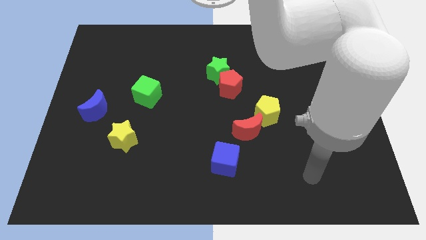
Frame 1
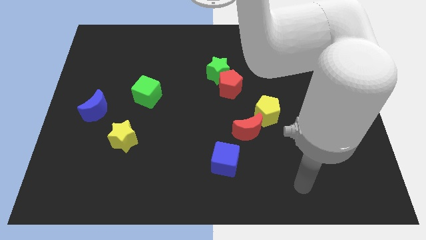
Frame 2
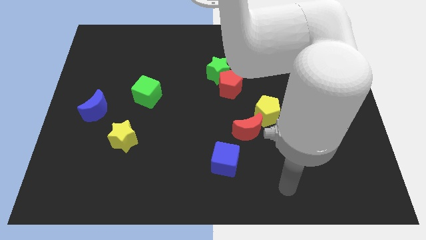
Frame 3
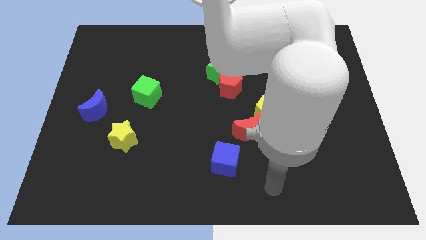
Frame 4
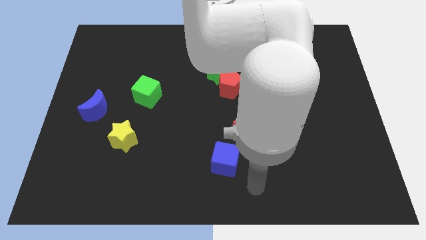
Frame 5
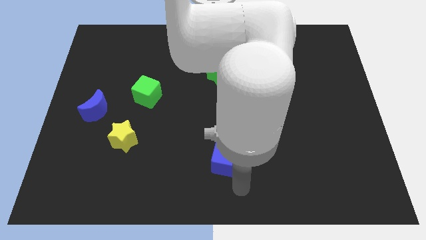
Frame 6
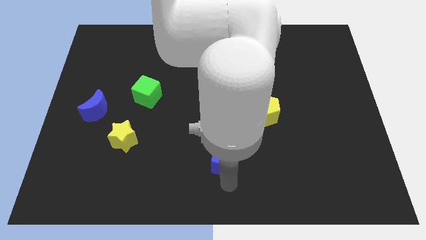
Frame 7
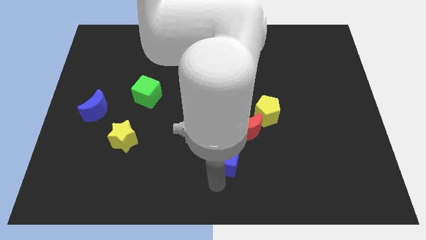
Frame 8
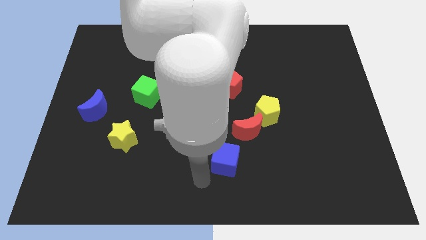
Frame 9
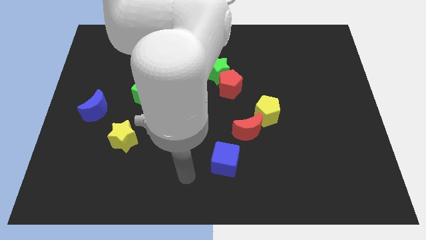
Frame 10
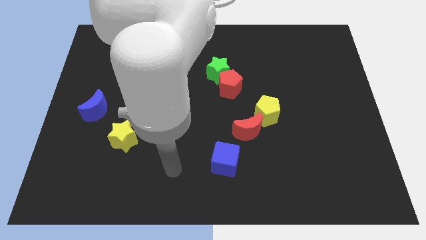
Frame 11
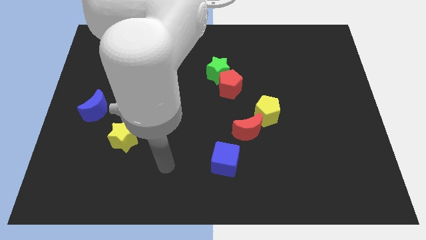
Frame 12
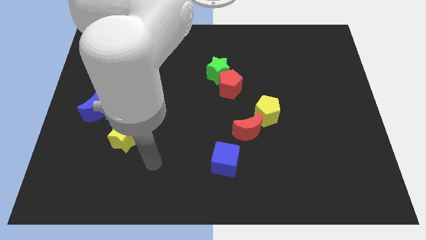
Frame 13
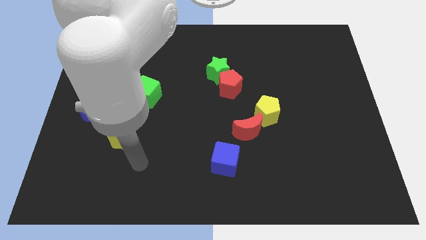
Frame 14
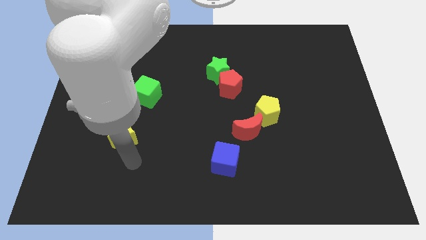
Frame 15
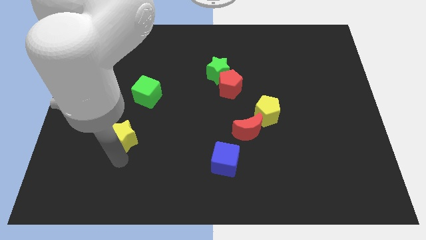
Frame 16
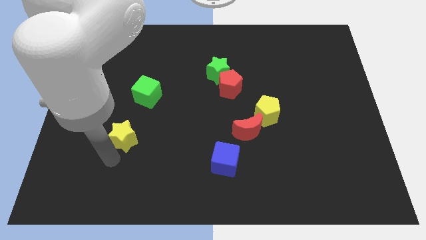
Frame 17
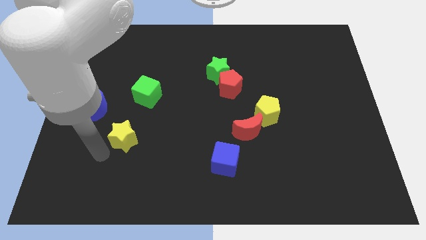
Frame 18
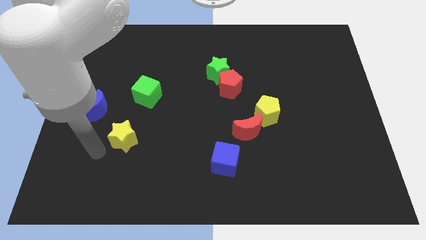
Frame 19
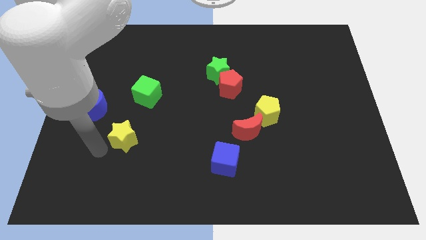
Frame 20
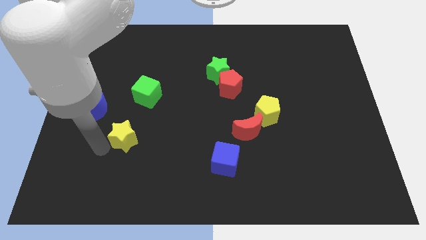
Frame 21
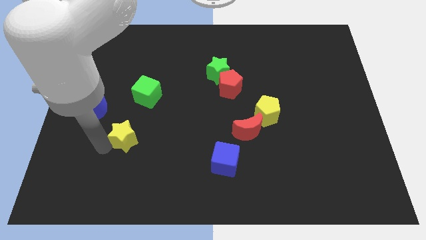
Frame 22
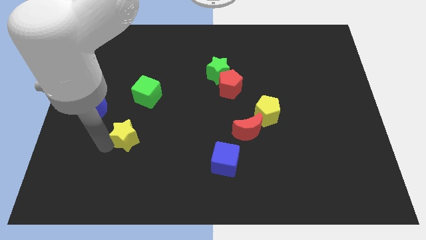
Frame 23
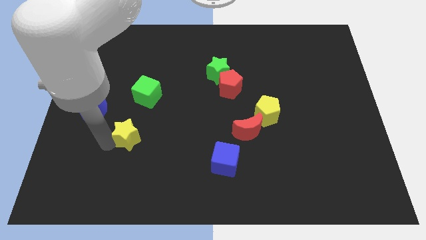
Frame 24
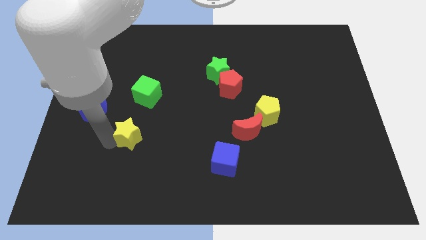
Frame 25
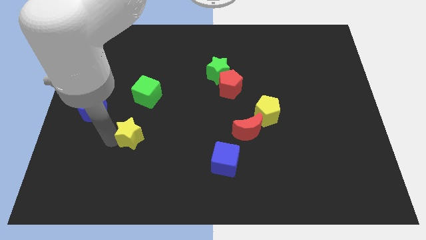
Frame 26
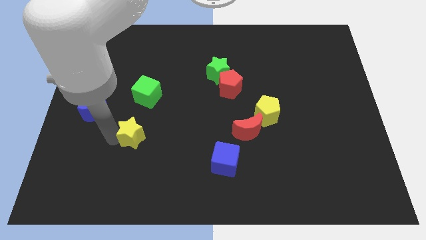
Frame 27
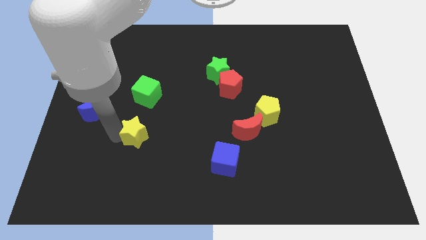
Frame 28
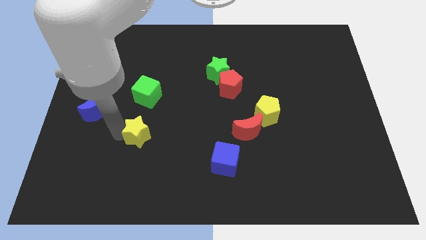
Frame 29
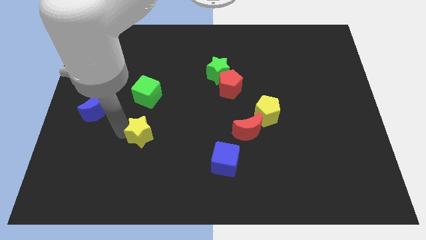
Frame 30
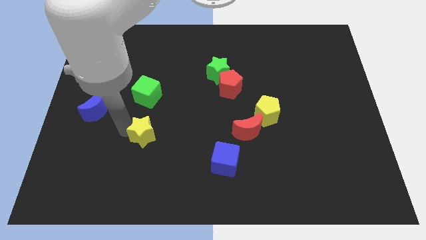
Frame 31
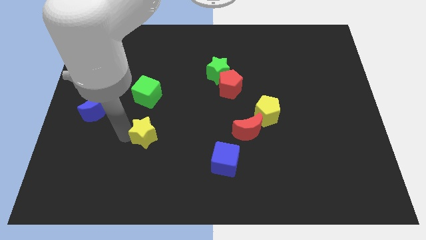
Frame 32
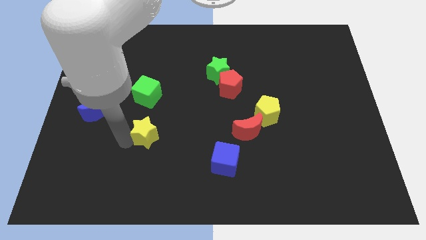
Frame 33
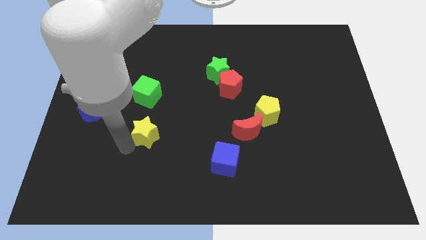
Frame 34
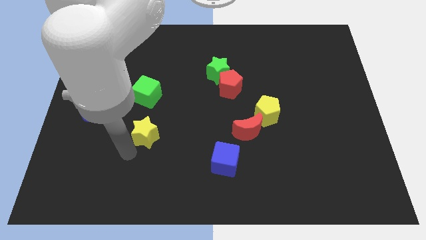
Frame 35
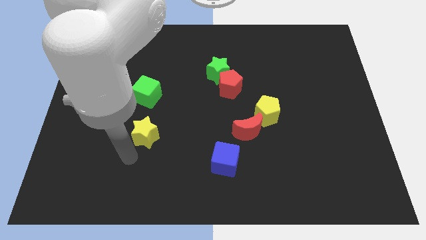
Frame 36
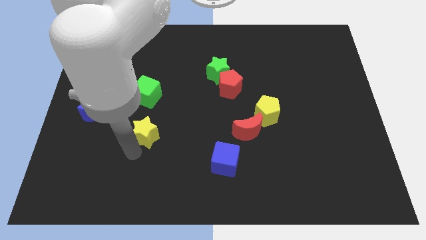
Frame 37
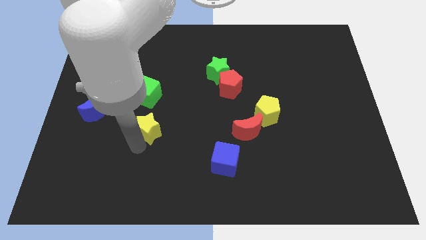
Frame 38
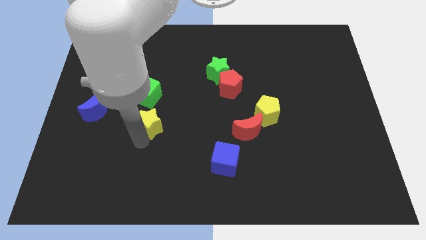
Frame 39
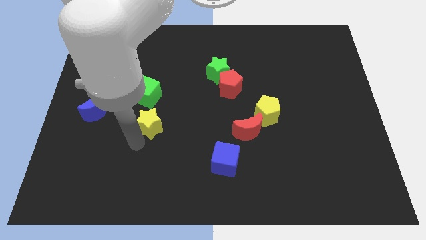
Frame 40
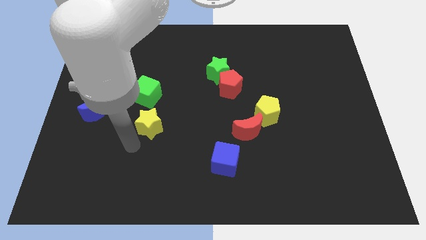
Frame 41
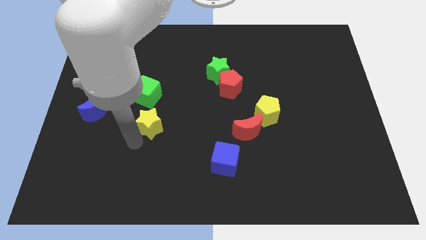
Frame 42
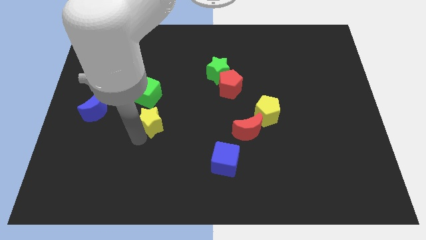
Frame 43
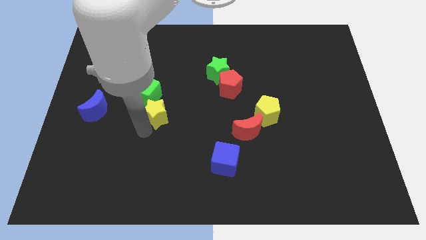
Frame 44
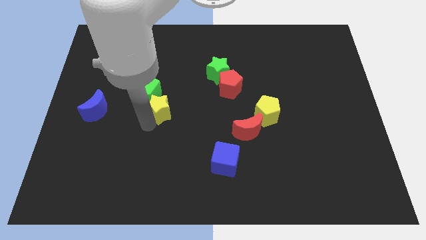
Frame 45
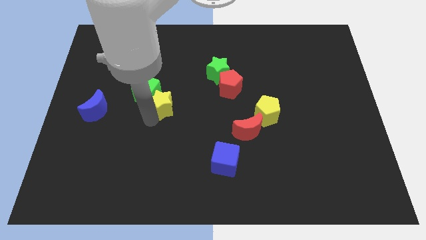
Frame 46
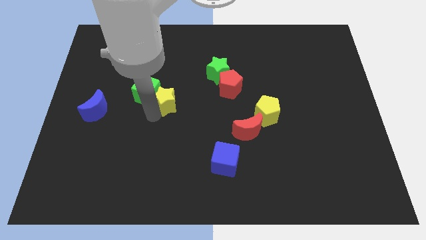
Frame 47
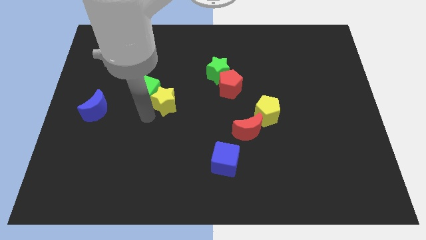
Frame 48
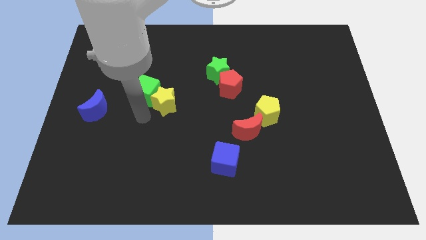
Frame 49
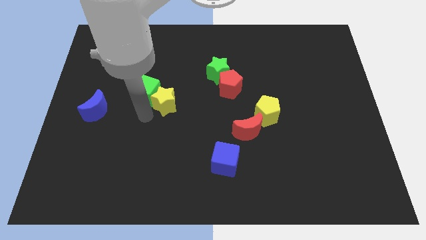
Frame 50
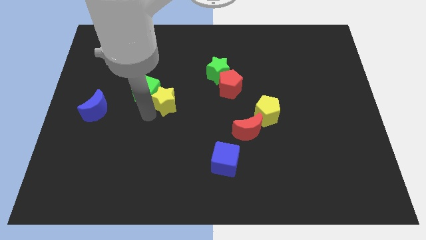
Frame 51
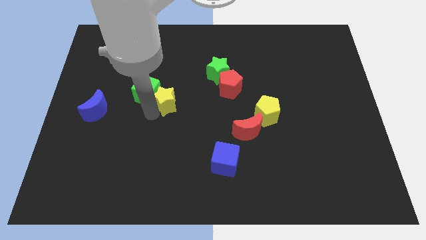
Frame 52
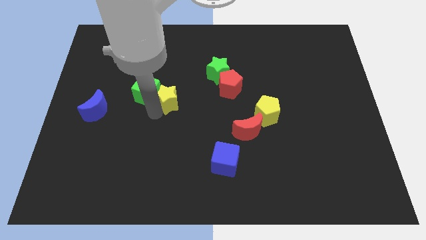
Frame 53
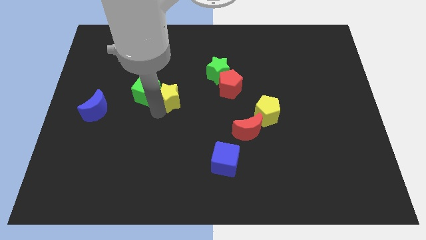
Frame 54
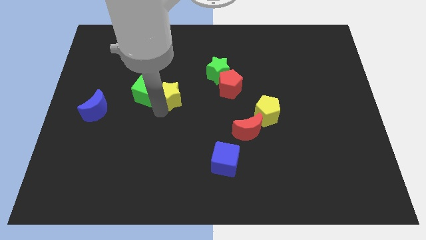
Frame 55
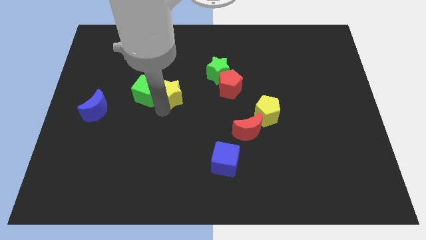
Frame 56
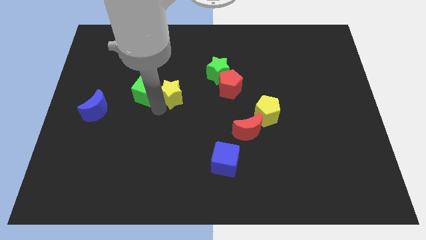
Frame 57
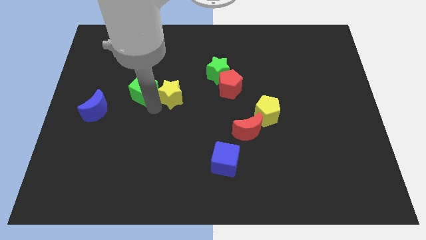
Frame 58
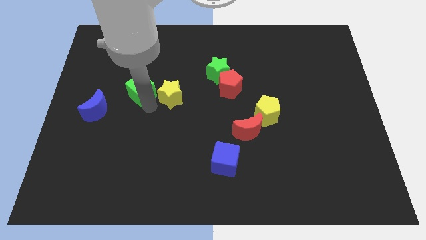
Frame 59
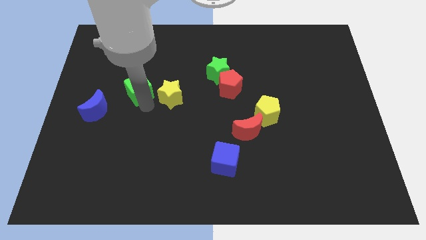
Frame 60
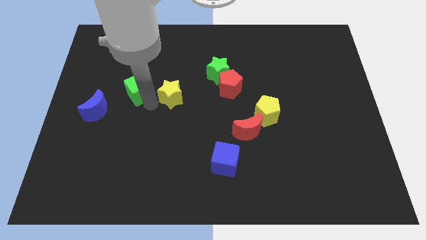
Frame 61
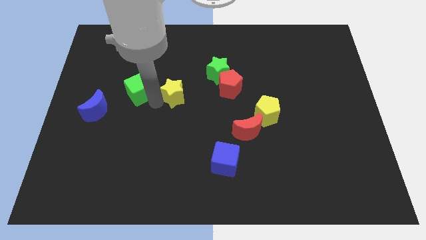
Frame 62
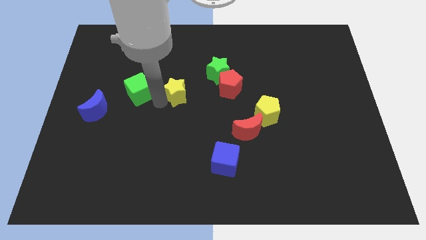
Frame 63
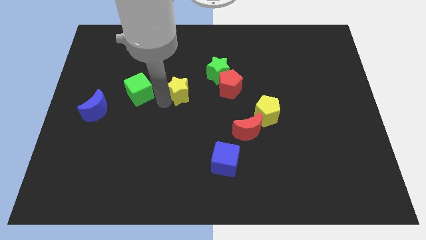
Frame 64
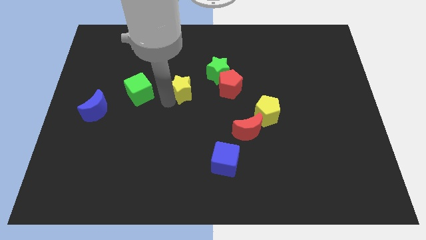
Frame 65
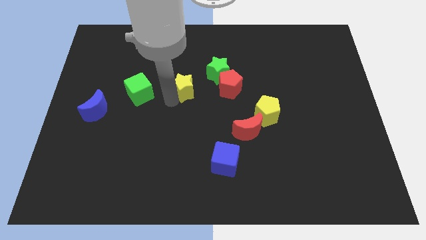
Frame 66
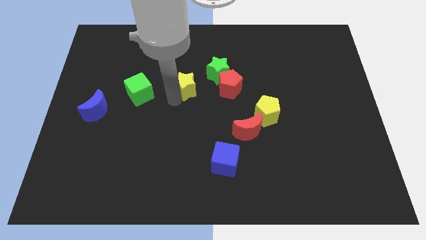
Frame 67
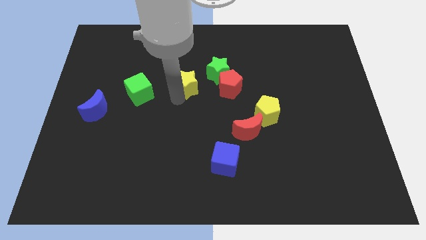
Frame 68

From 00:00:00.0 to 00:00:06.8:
push the yellow star diagonally upwards and to the right

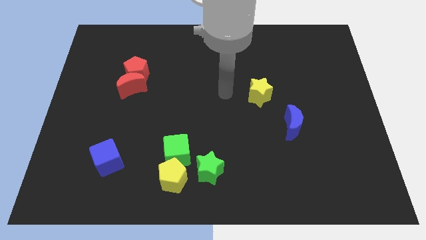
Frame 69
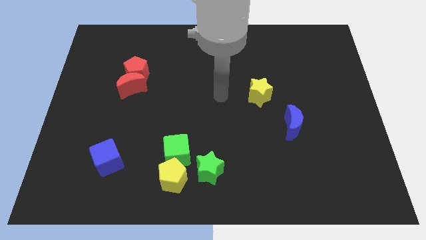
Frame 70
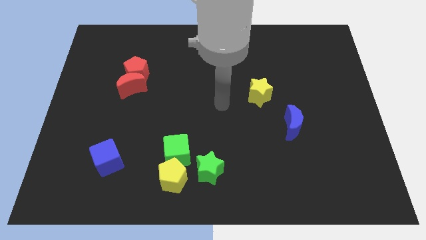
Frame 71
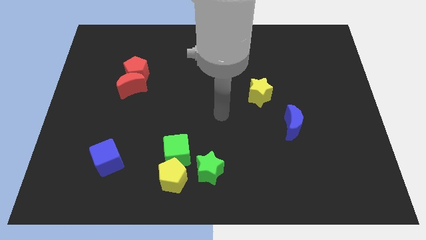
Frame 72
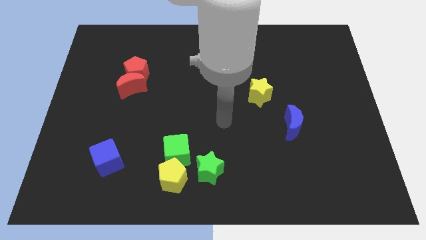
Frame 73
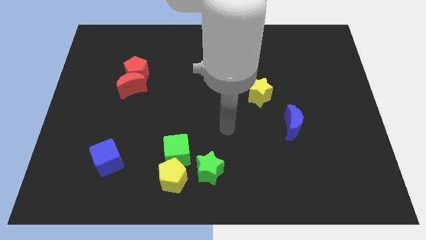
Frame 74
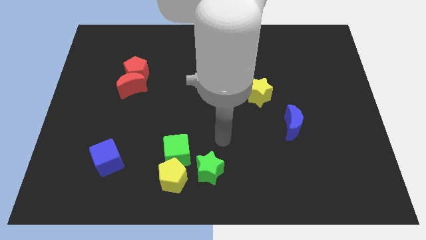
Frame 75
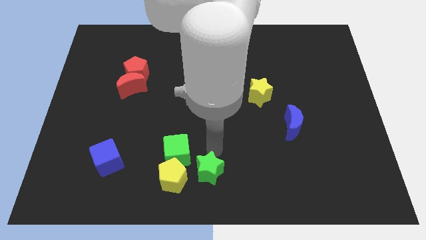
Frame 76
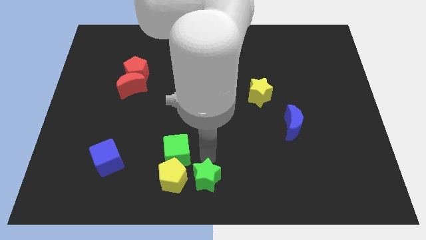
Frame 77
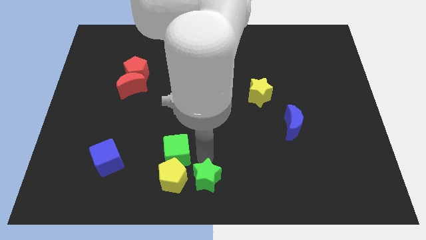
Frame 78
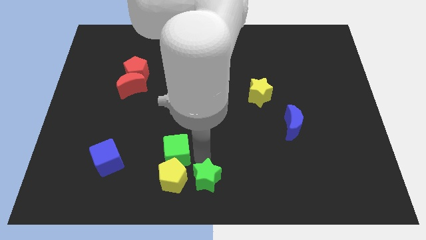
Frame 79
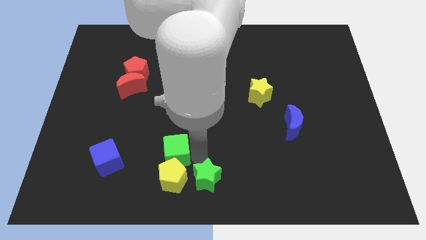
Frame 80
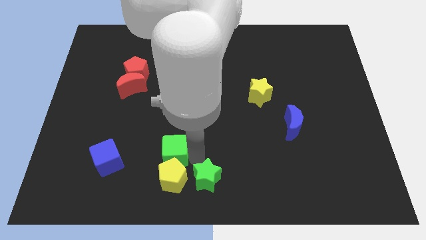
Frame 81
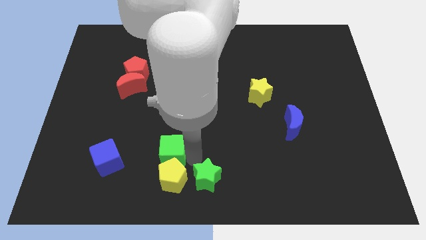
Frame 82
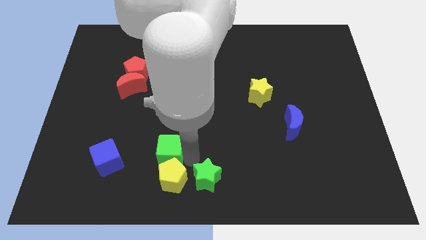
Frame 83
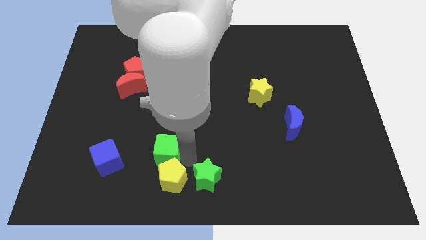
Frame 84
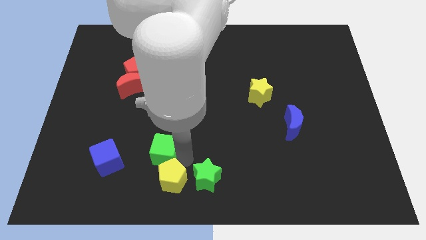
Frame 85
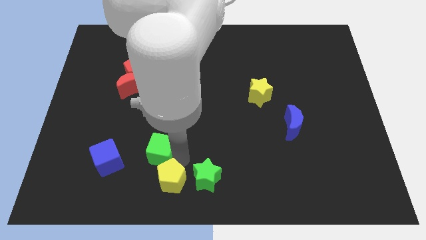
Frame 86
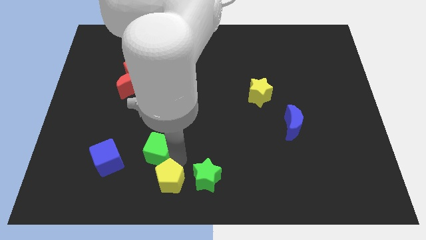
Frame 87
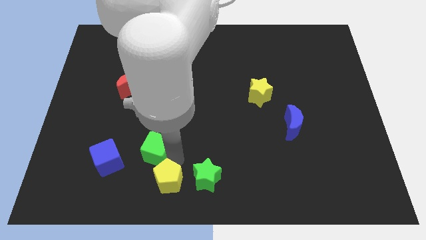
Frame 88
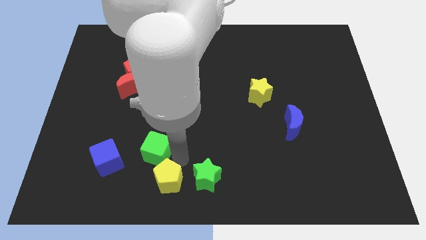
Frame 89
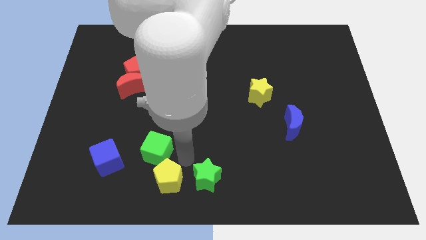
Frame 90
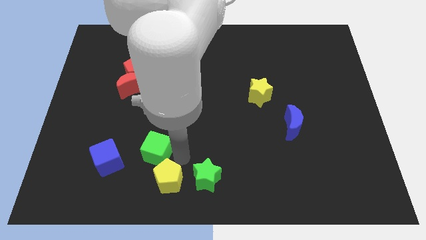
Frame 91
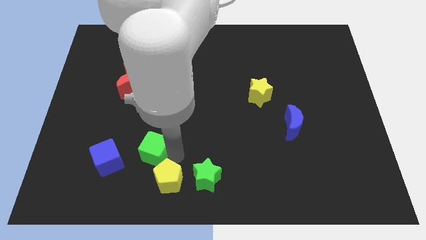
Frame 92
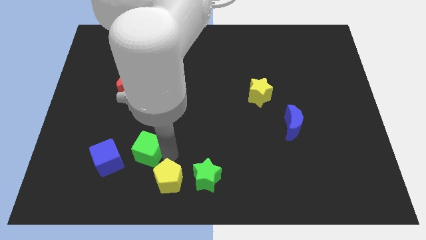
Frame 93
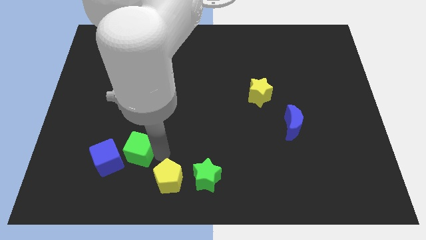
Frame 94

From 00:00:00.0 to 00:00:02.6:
slightly move the green cube to the left
